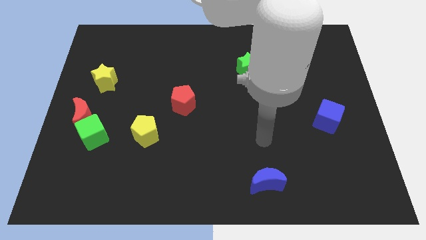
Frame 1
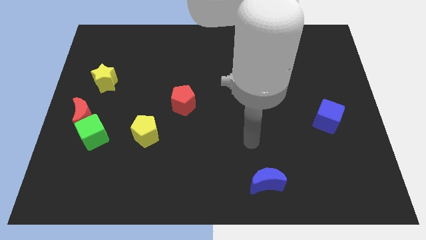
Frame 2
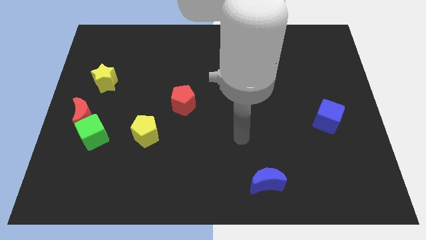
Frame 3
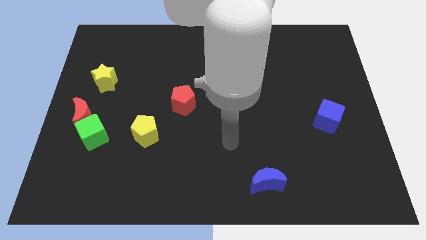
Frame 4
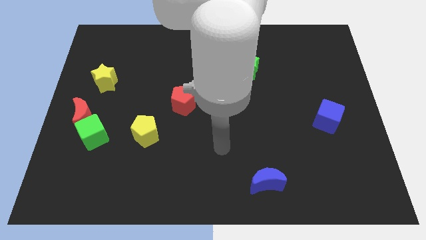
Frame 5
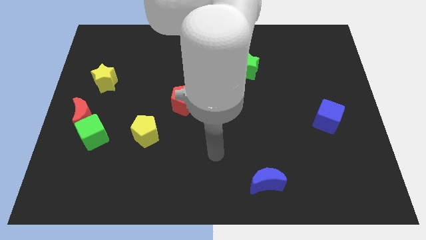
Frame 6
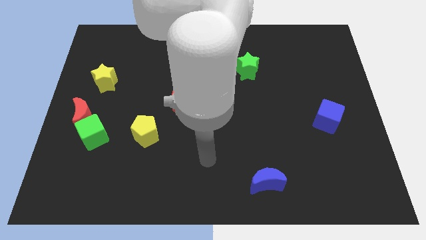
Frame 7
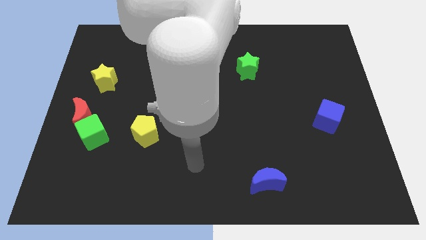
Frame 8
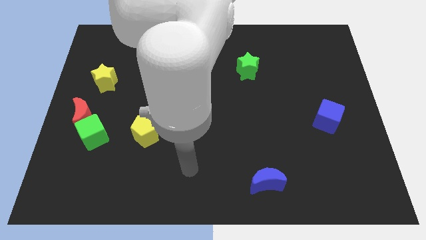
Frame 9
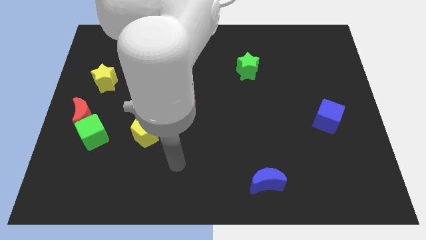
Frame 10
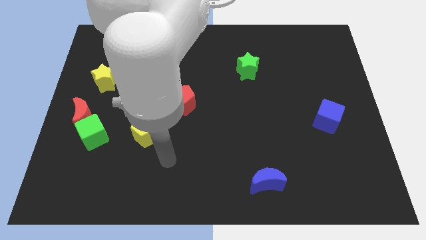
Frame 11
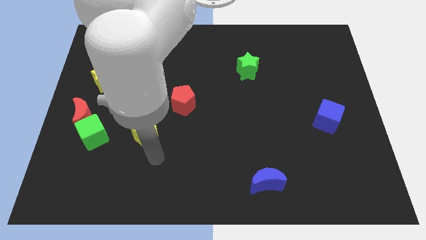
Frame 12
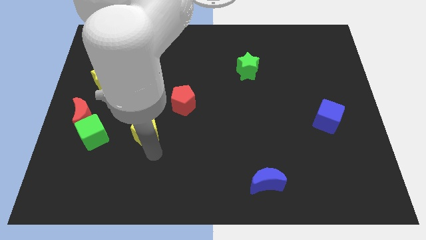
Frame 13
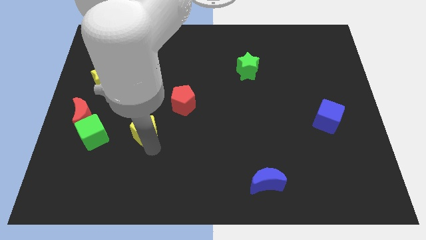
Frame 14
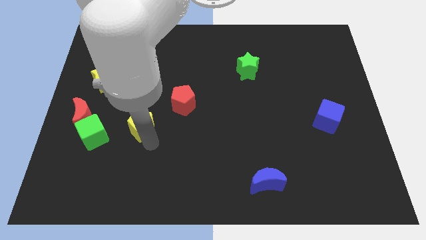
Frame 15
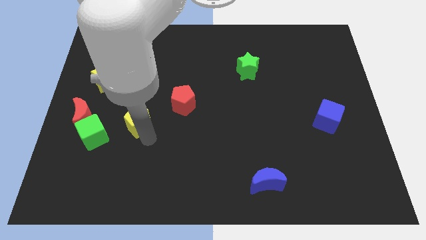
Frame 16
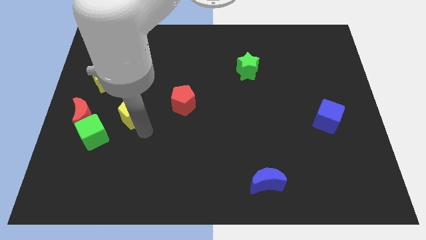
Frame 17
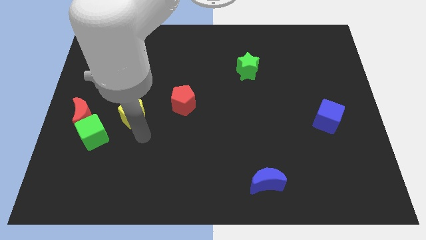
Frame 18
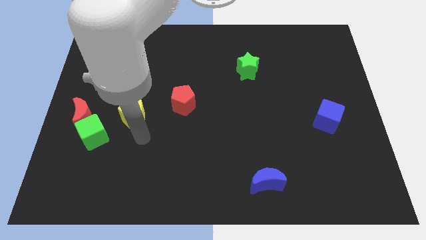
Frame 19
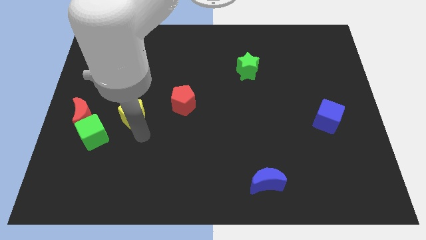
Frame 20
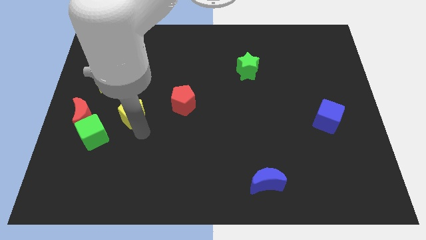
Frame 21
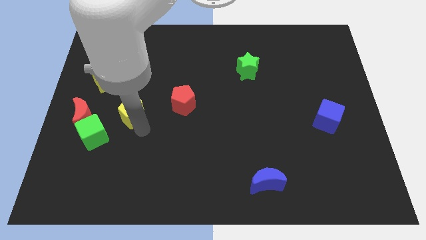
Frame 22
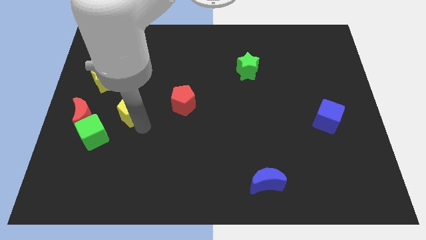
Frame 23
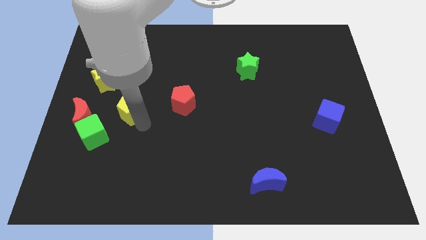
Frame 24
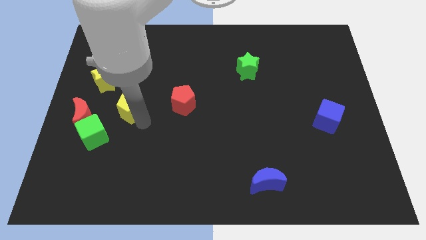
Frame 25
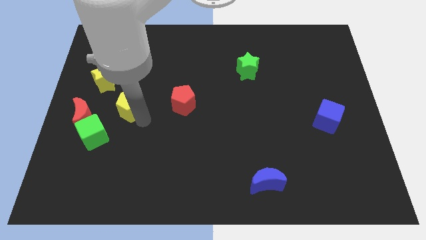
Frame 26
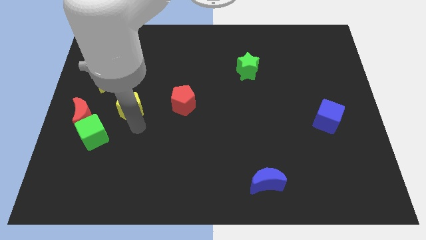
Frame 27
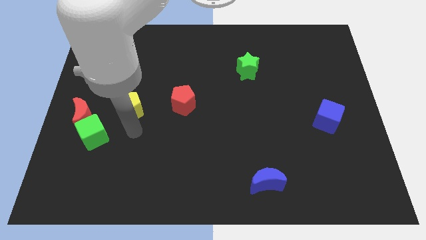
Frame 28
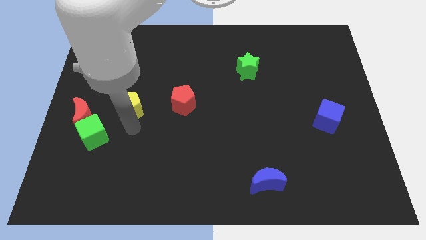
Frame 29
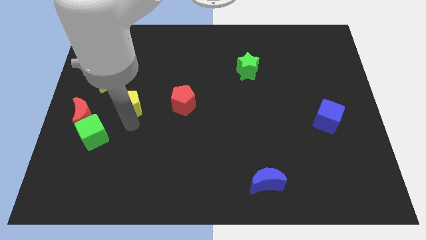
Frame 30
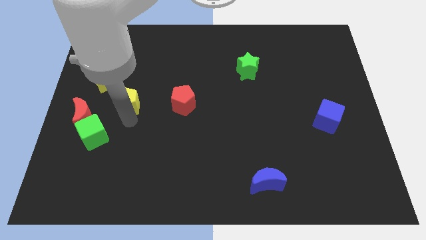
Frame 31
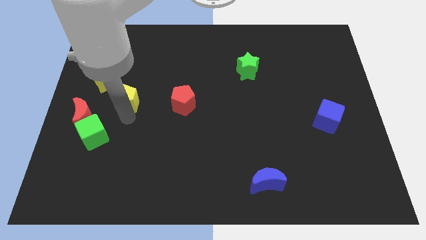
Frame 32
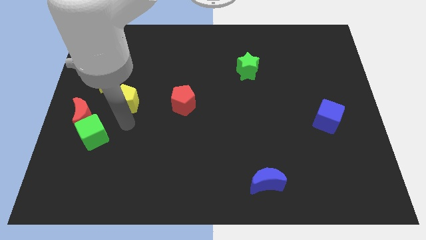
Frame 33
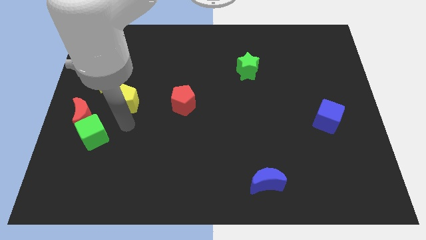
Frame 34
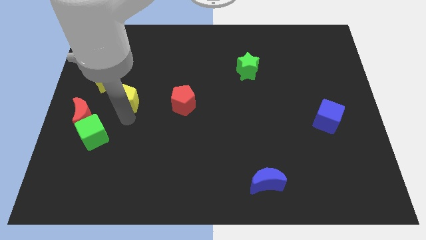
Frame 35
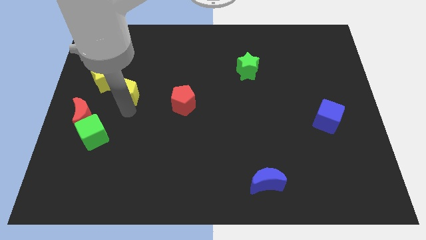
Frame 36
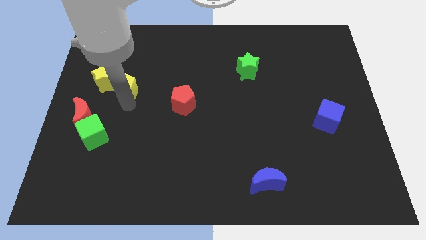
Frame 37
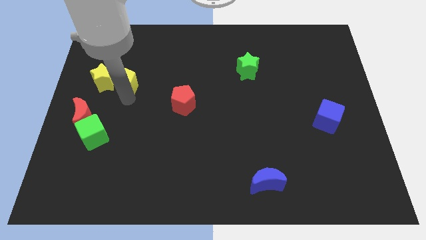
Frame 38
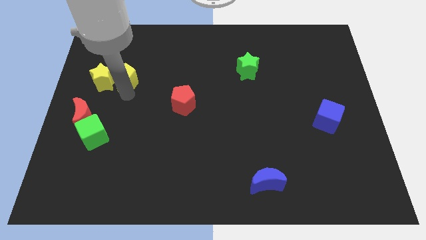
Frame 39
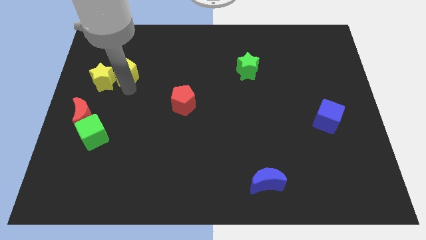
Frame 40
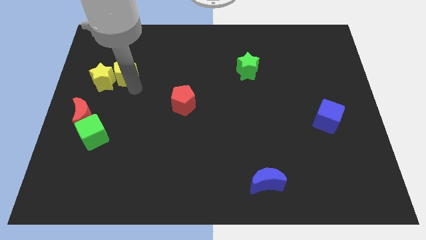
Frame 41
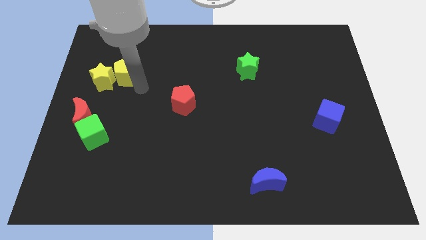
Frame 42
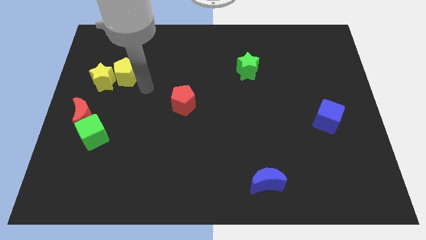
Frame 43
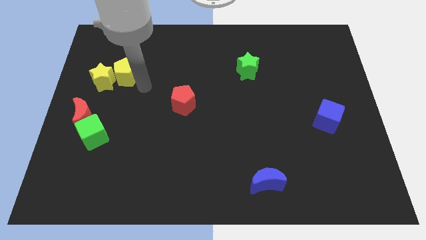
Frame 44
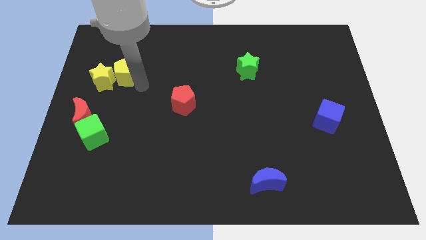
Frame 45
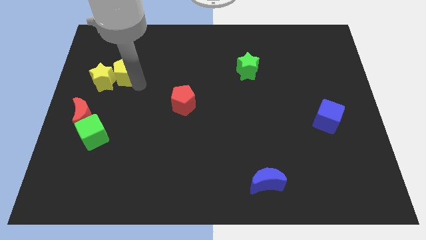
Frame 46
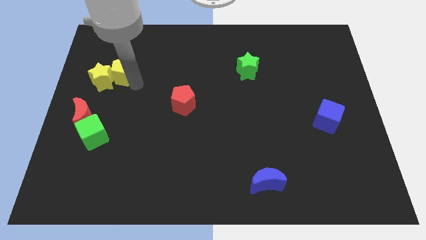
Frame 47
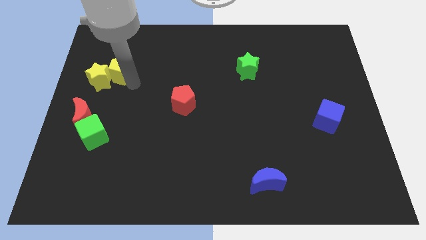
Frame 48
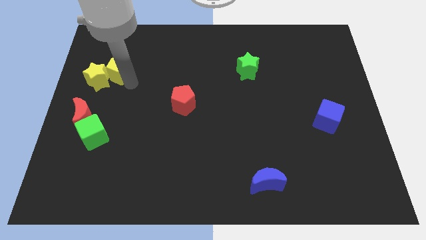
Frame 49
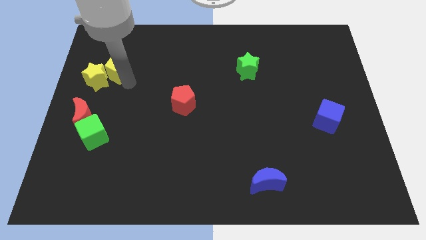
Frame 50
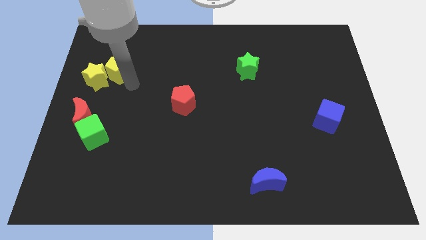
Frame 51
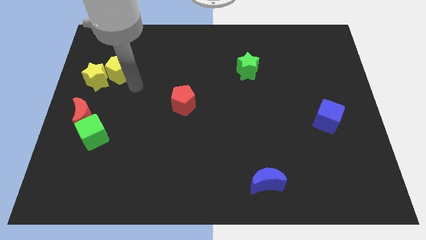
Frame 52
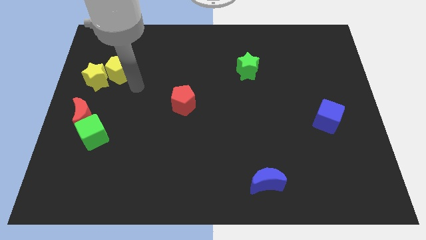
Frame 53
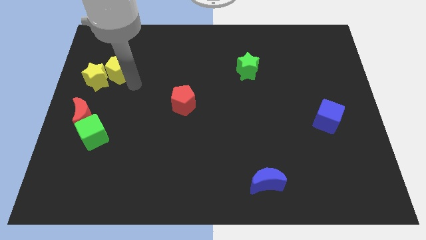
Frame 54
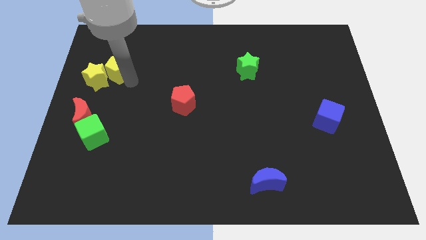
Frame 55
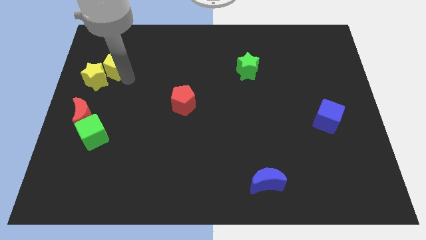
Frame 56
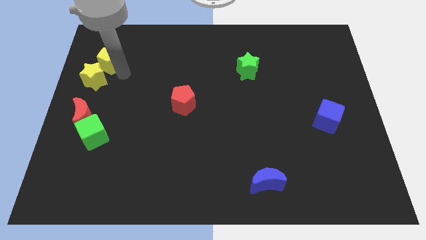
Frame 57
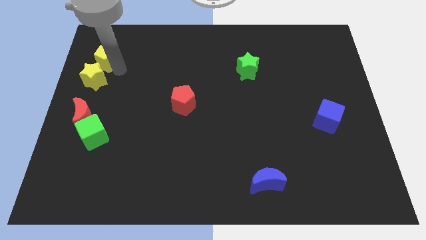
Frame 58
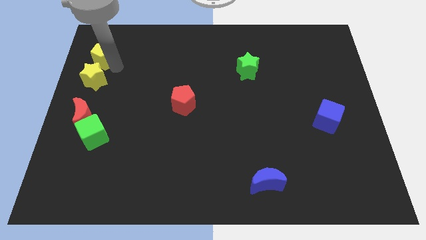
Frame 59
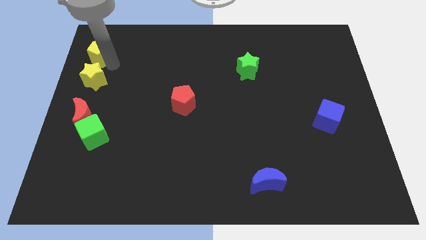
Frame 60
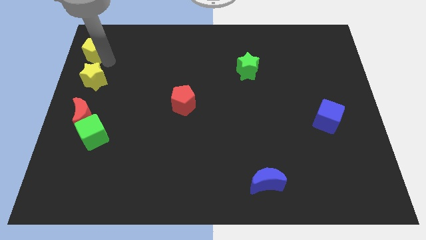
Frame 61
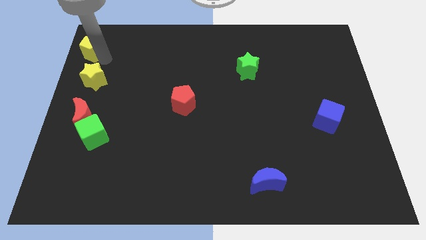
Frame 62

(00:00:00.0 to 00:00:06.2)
put the yellow pentagon to the top left
